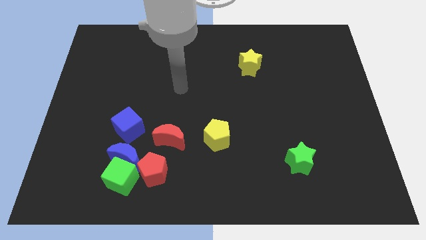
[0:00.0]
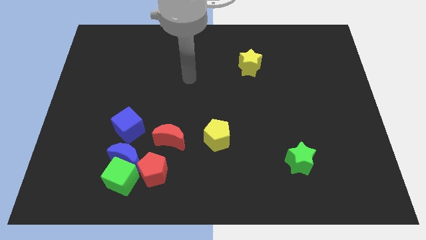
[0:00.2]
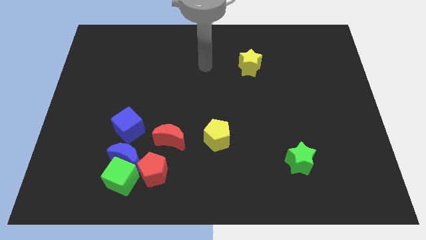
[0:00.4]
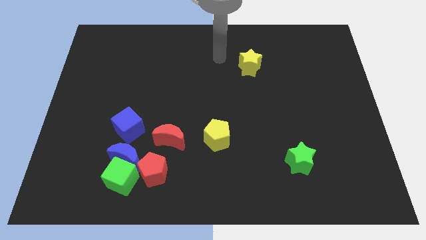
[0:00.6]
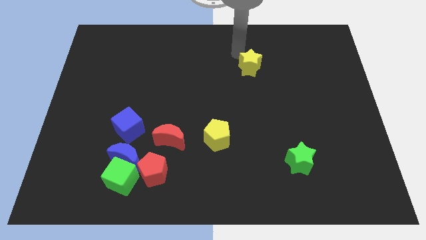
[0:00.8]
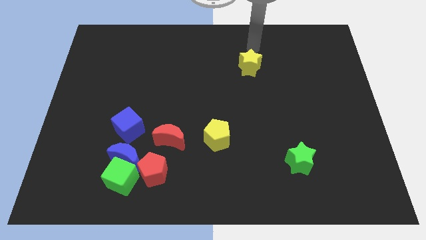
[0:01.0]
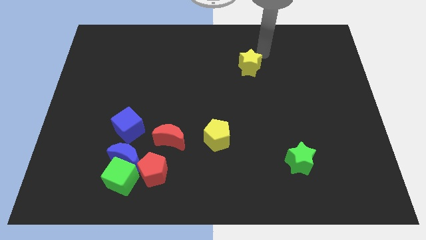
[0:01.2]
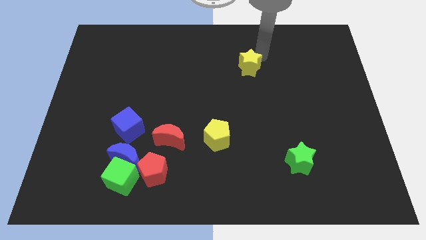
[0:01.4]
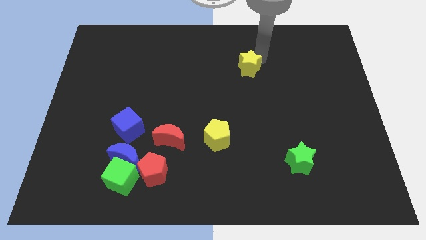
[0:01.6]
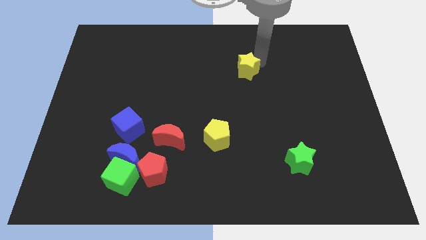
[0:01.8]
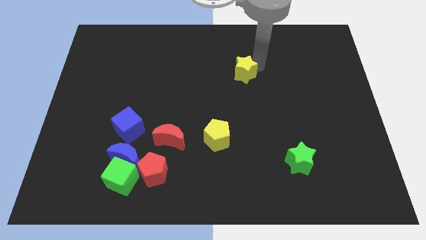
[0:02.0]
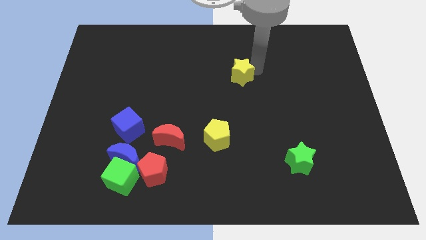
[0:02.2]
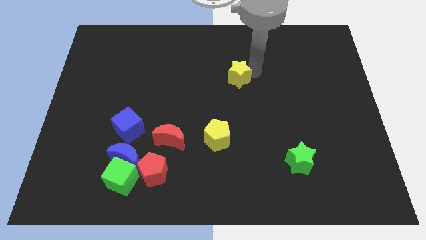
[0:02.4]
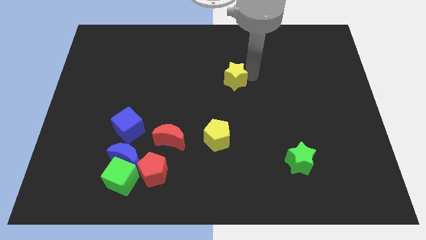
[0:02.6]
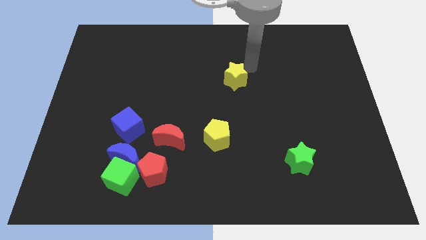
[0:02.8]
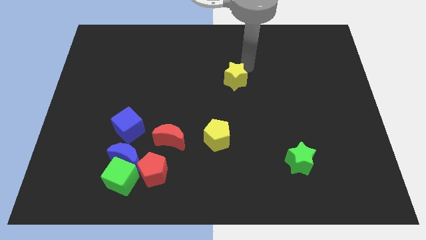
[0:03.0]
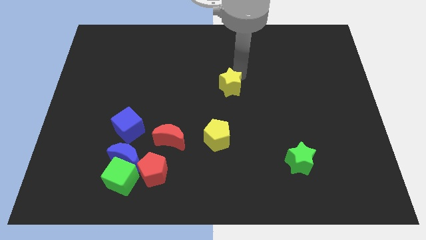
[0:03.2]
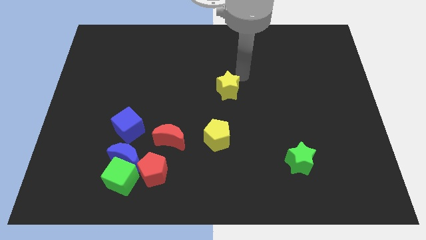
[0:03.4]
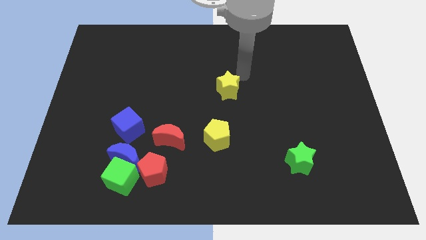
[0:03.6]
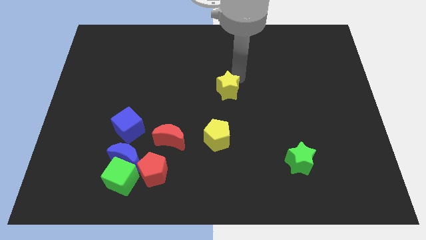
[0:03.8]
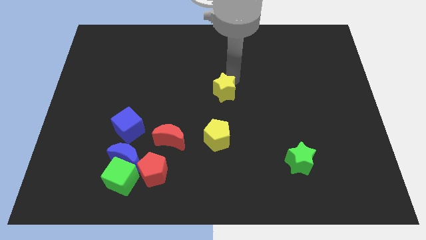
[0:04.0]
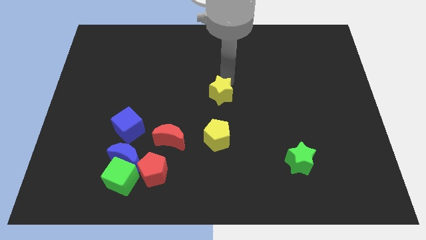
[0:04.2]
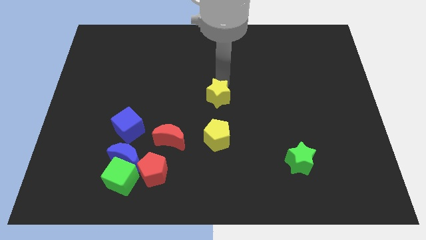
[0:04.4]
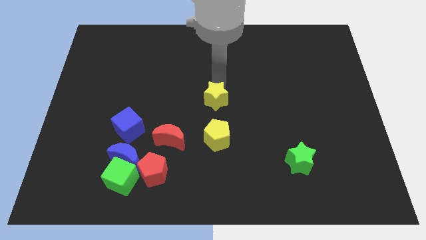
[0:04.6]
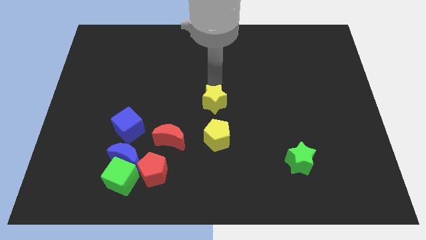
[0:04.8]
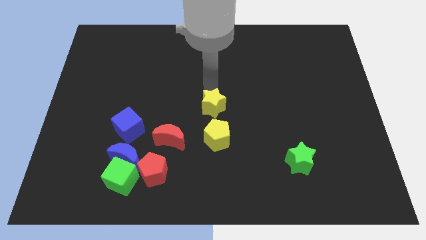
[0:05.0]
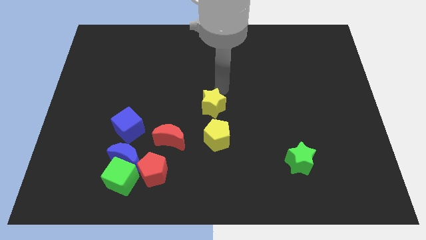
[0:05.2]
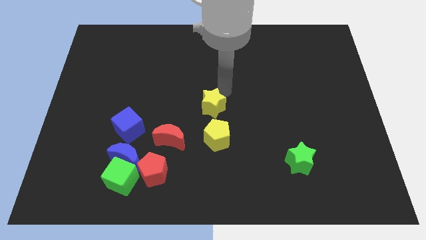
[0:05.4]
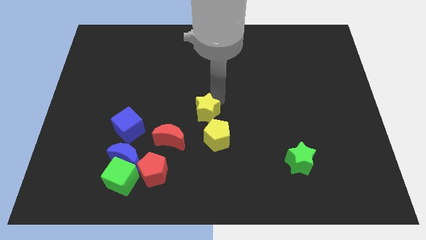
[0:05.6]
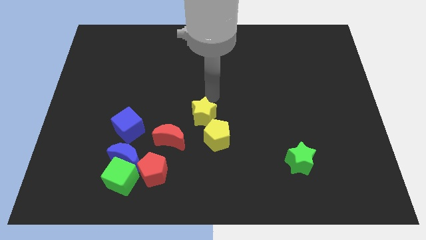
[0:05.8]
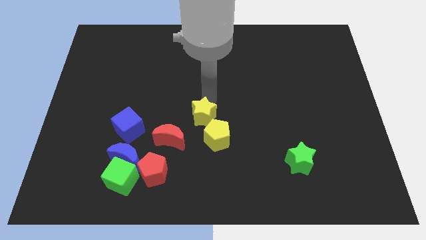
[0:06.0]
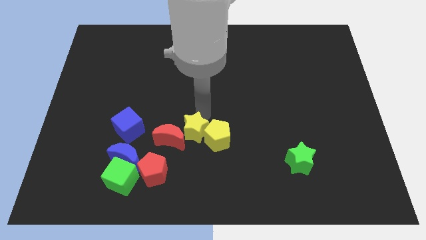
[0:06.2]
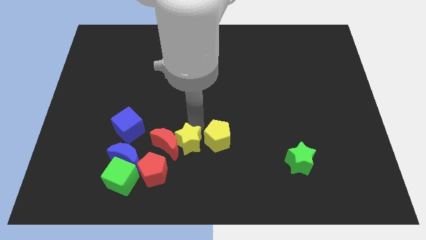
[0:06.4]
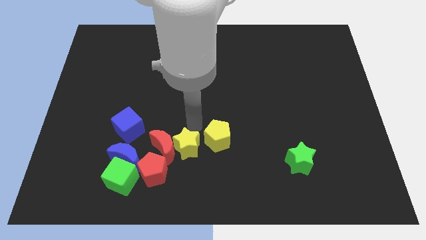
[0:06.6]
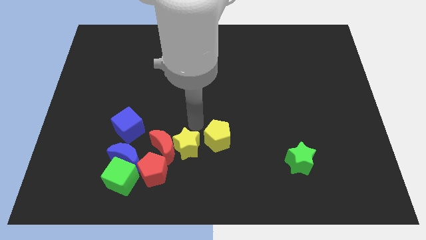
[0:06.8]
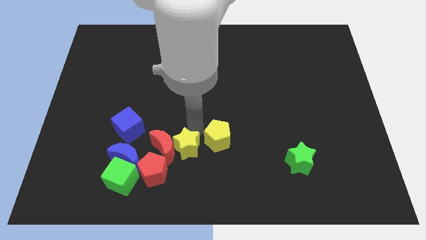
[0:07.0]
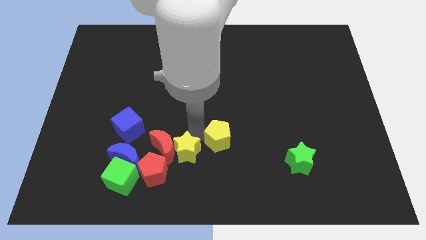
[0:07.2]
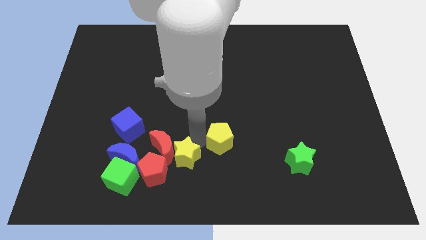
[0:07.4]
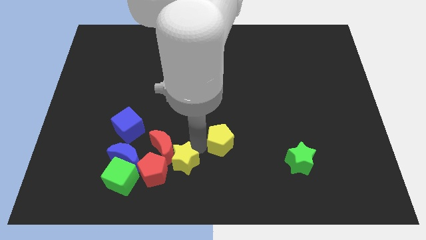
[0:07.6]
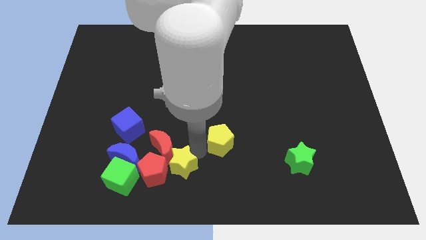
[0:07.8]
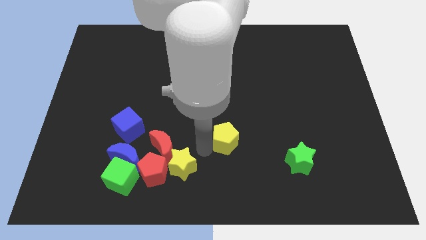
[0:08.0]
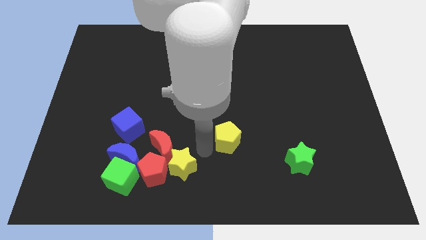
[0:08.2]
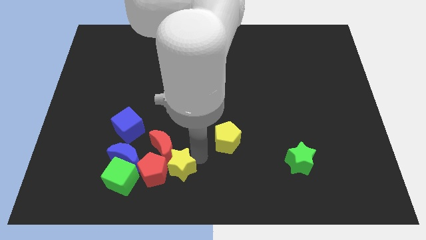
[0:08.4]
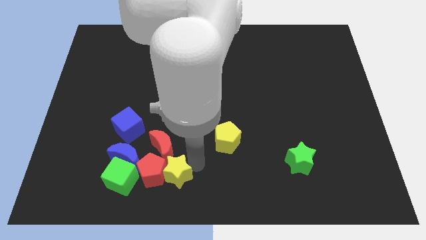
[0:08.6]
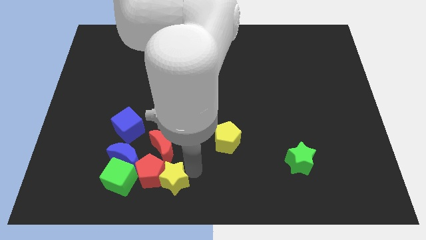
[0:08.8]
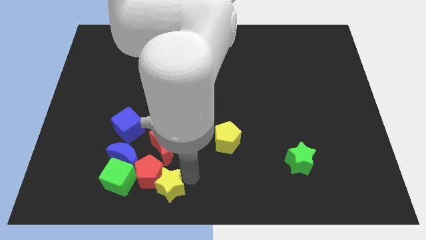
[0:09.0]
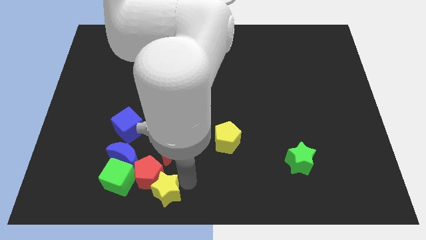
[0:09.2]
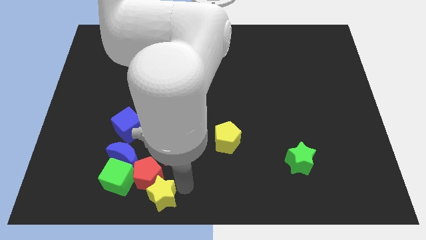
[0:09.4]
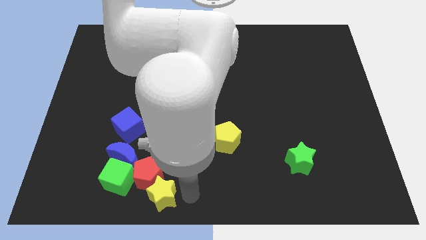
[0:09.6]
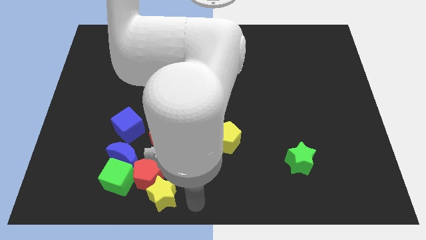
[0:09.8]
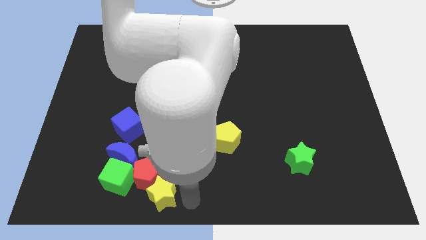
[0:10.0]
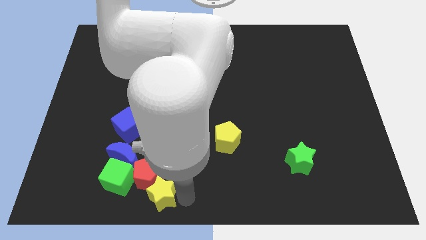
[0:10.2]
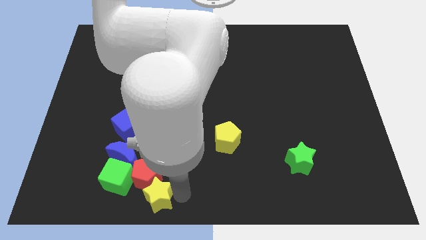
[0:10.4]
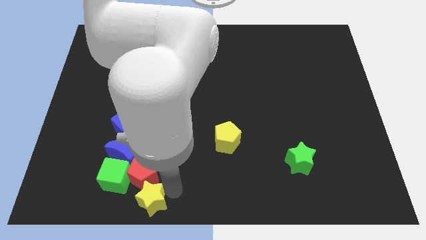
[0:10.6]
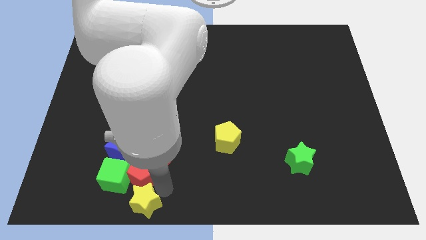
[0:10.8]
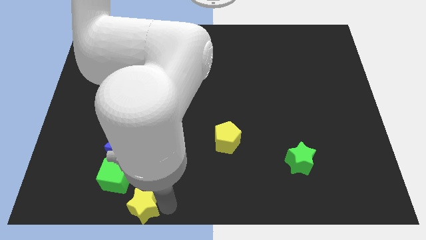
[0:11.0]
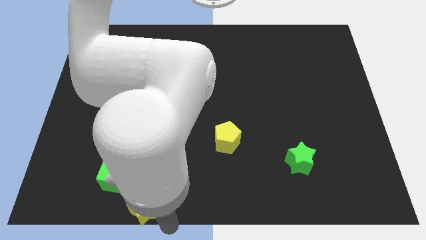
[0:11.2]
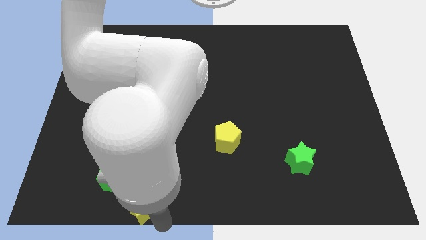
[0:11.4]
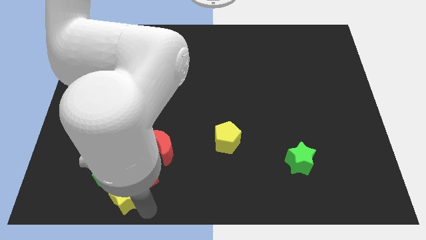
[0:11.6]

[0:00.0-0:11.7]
push the yellow star towards the green cube
